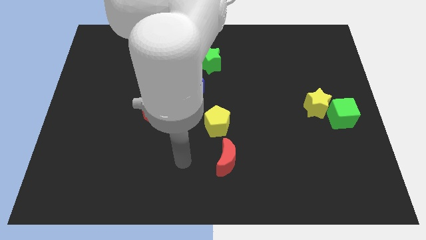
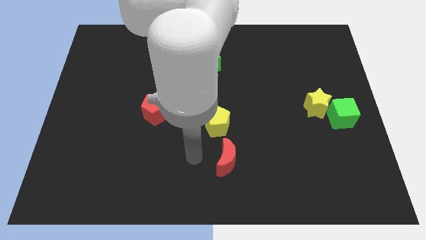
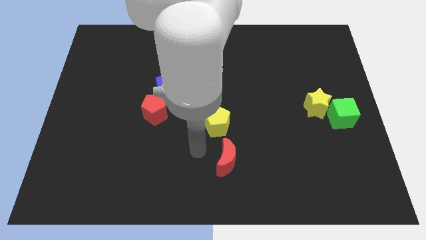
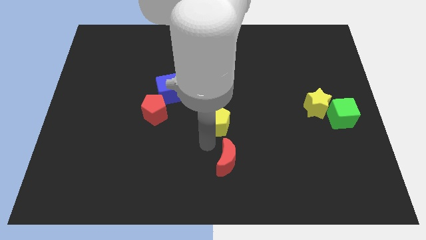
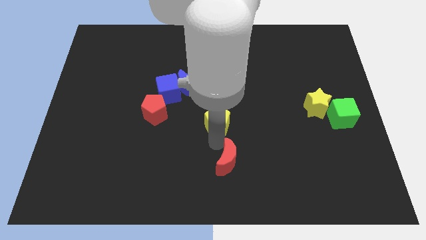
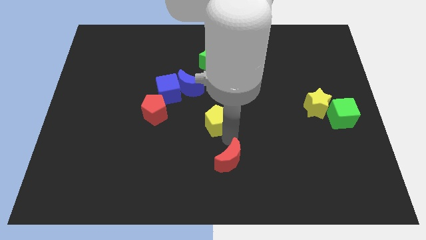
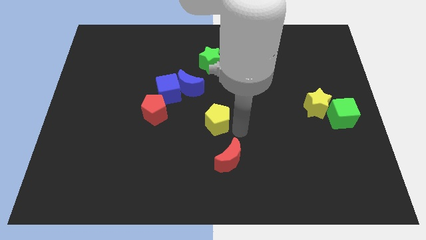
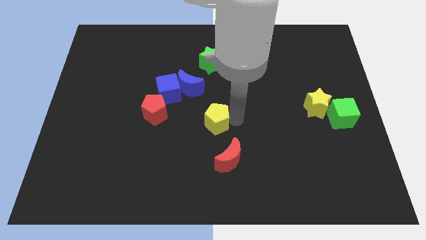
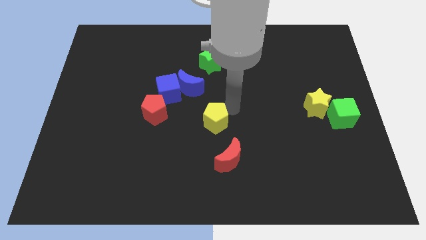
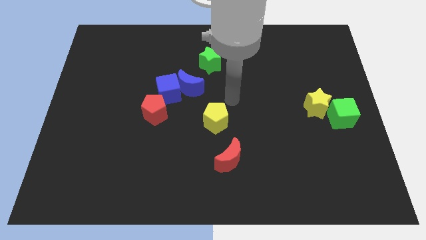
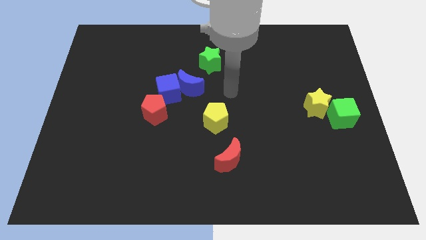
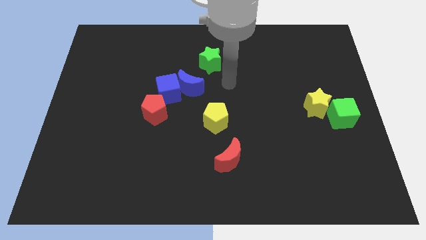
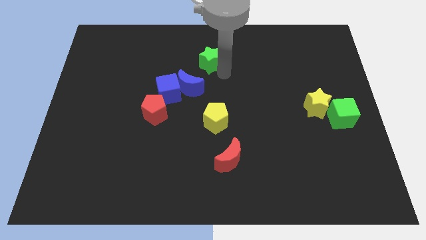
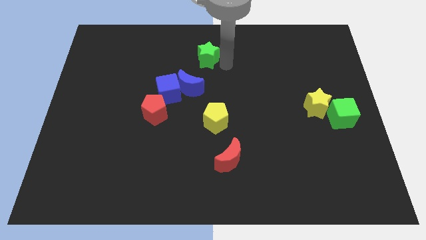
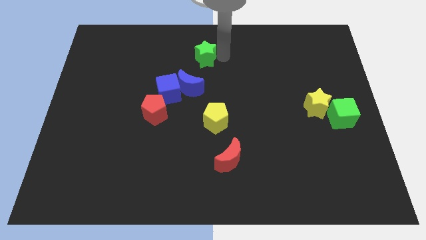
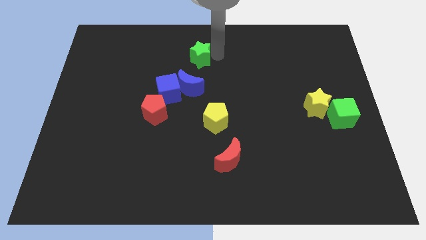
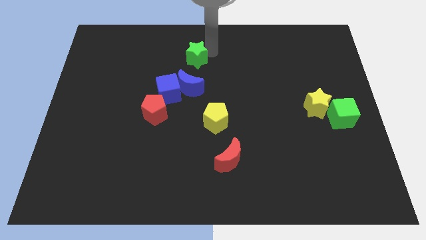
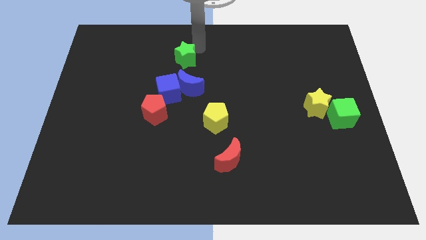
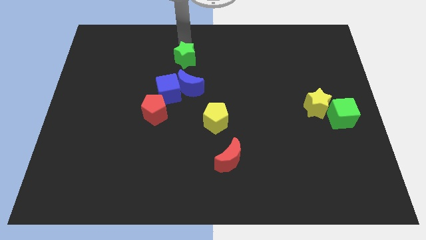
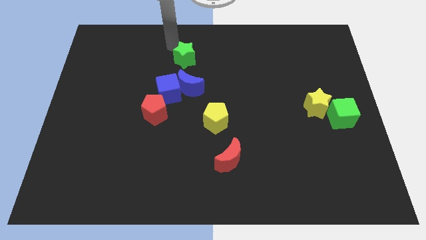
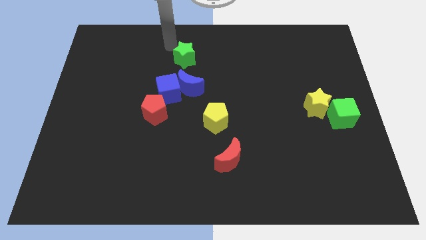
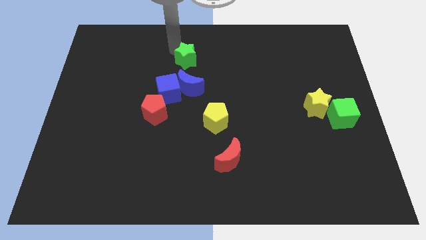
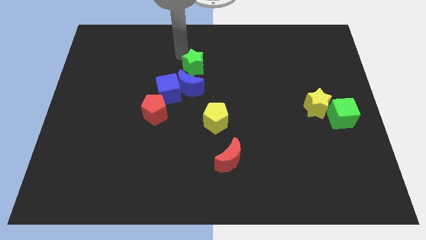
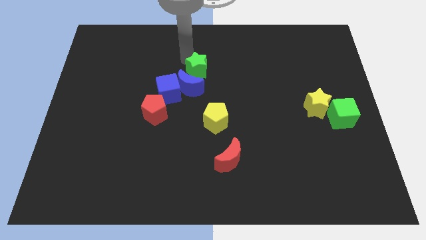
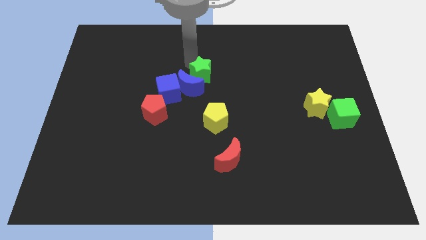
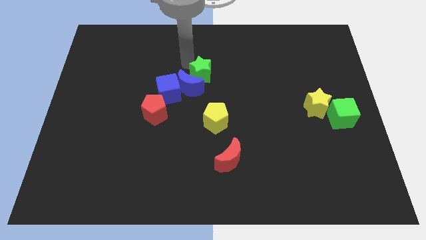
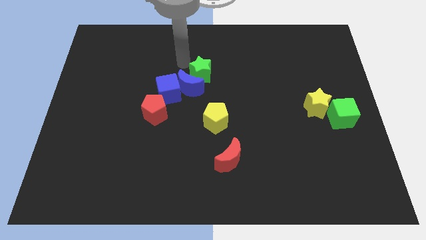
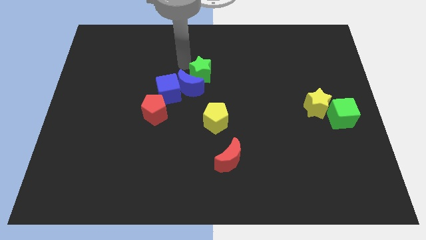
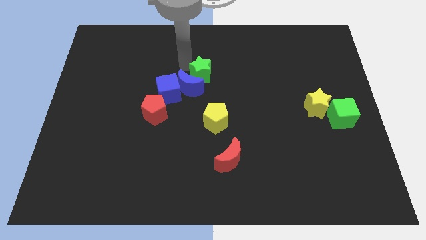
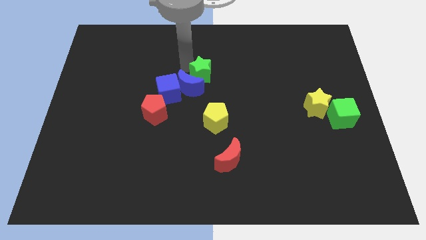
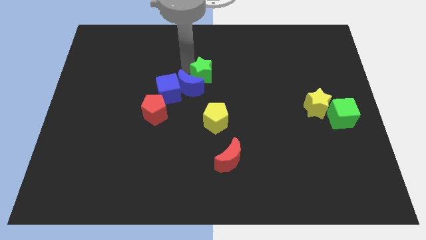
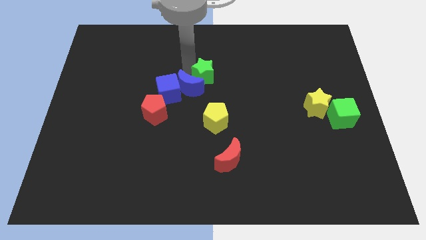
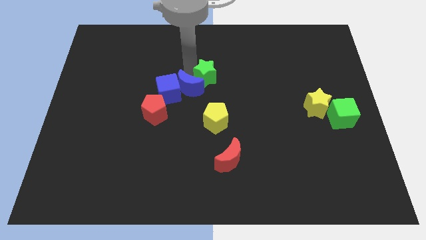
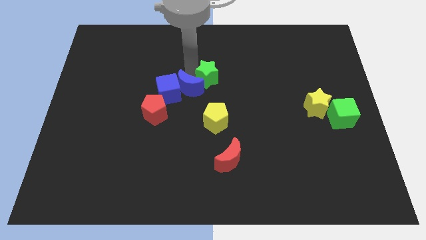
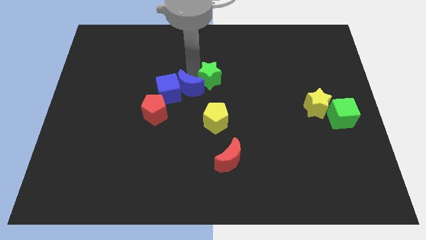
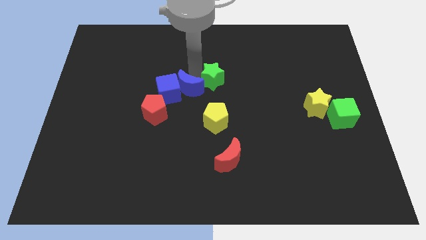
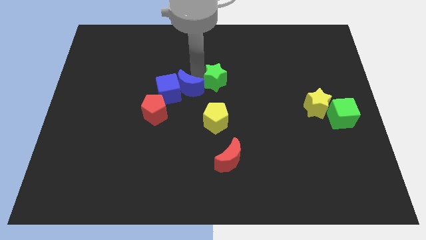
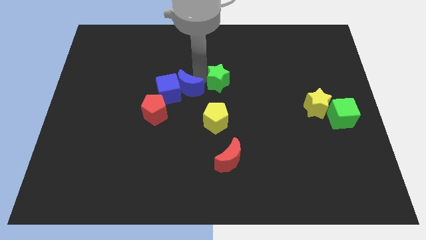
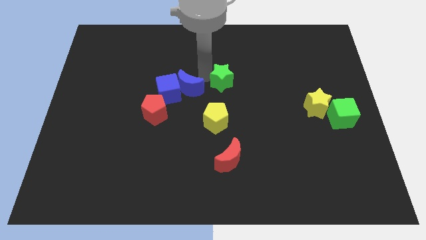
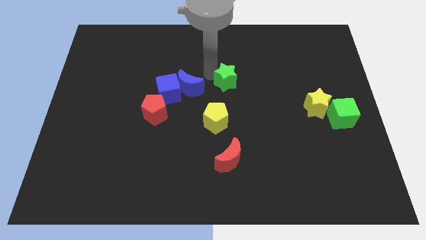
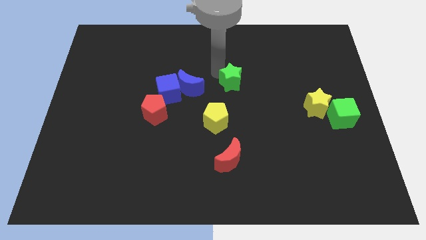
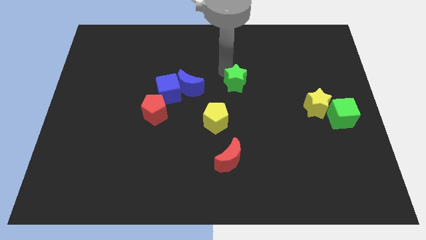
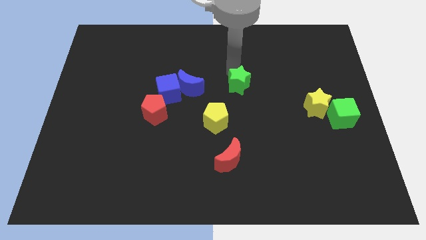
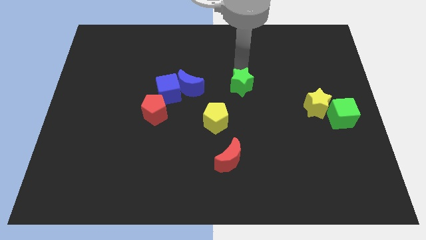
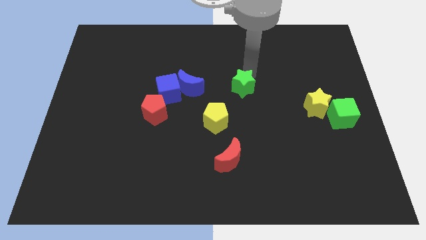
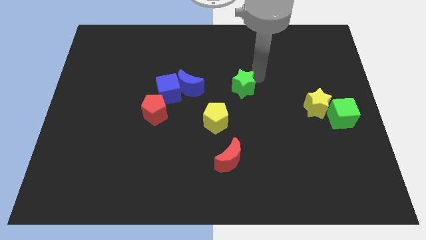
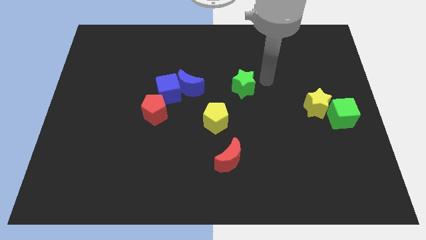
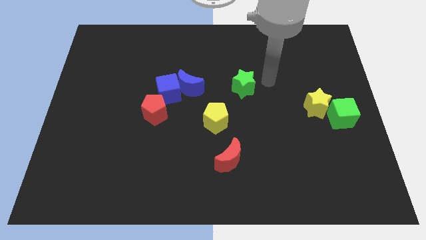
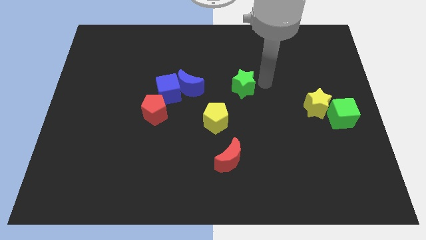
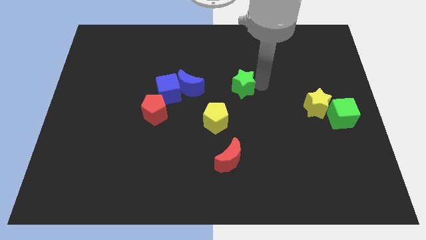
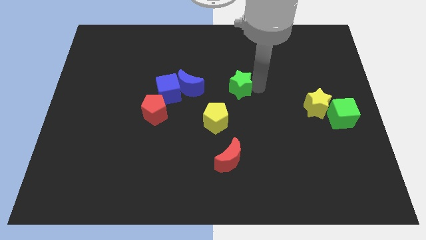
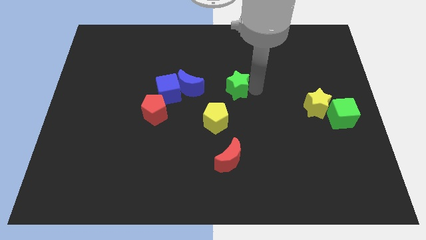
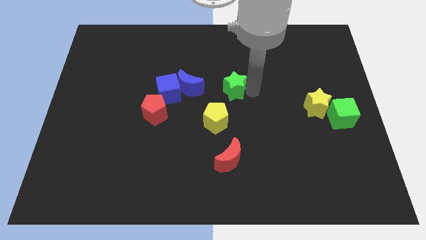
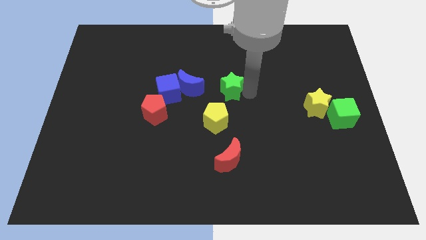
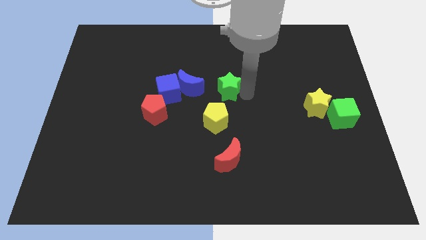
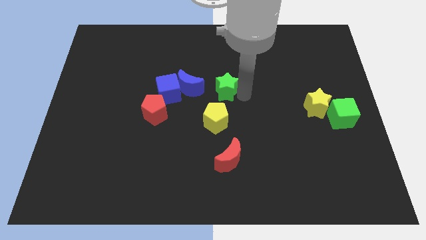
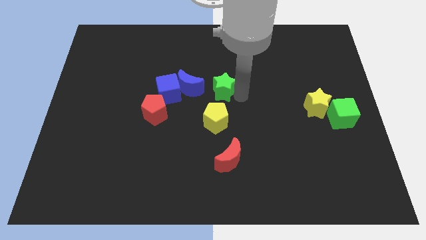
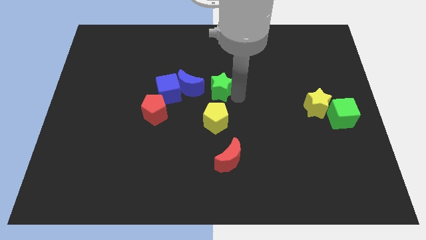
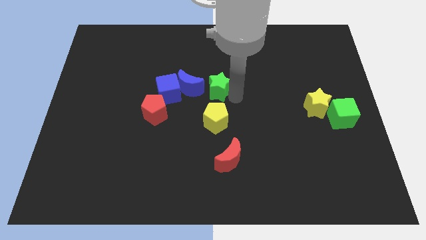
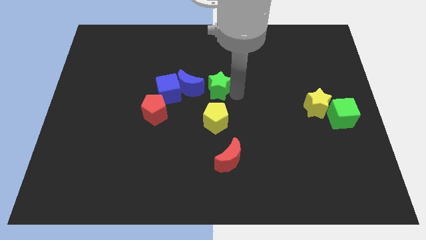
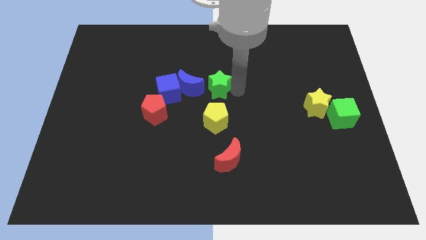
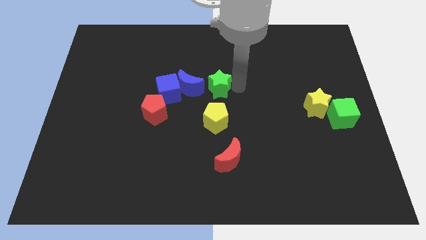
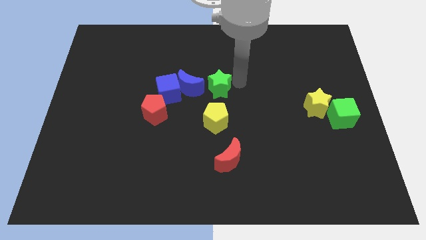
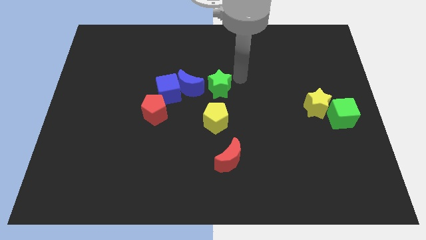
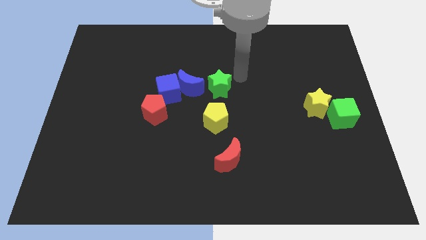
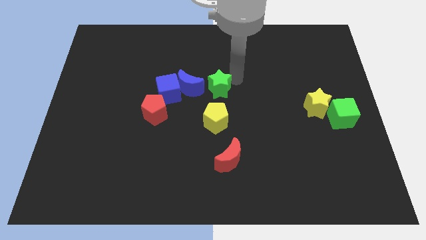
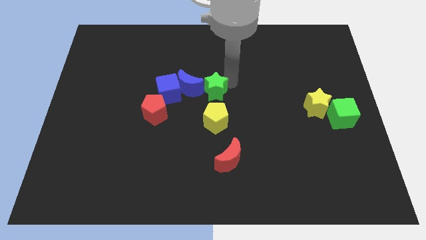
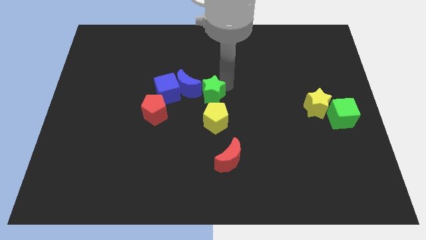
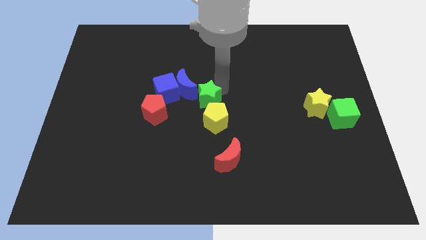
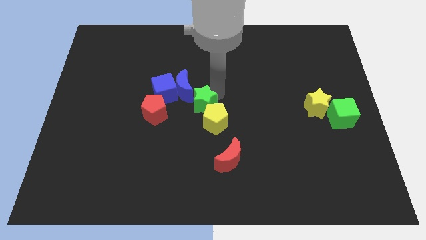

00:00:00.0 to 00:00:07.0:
put the green star to the bottom right of the blue cube
